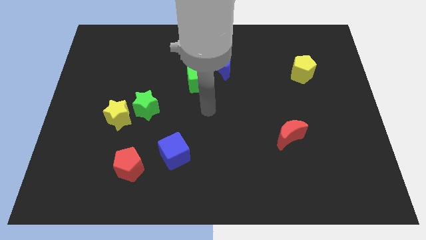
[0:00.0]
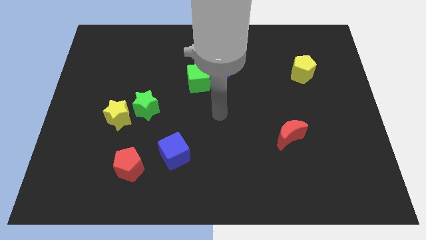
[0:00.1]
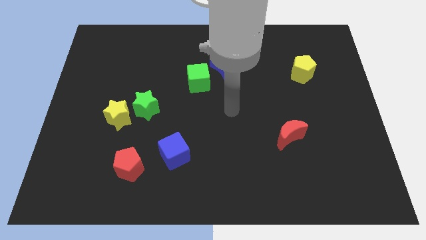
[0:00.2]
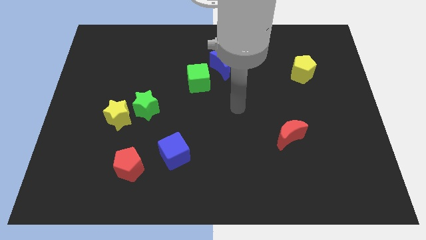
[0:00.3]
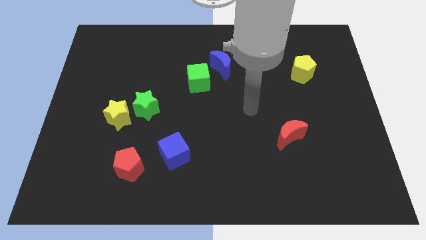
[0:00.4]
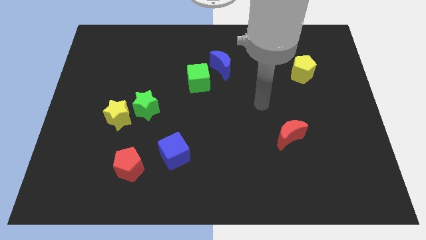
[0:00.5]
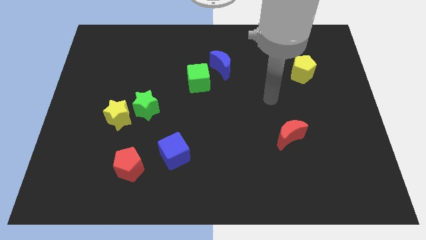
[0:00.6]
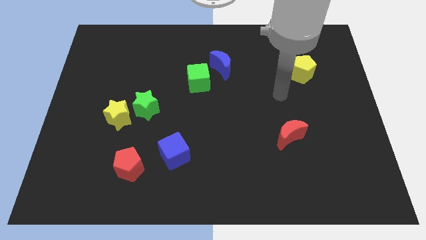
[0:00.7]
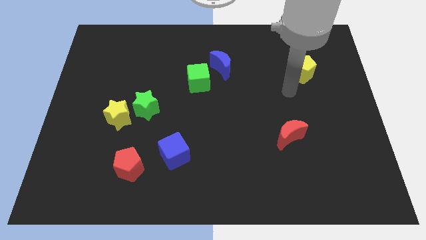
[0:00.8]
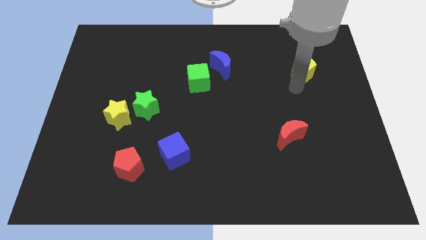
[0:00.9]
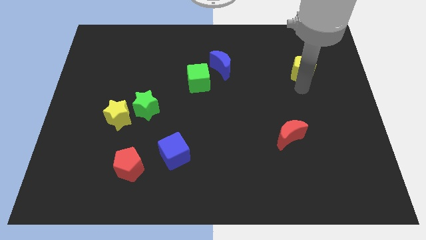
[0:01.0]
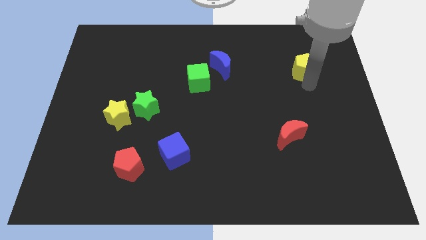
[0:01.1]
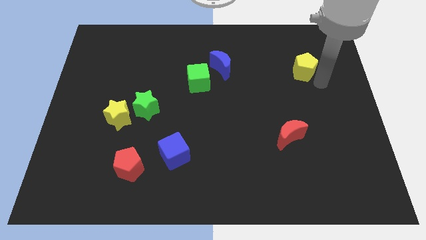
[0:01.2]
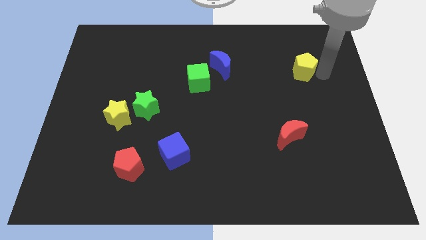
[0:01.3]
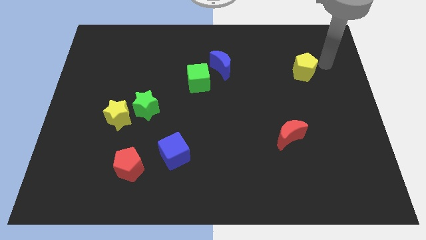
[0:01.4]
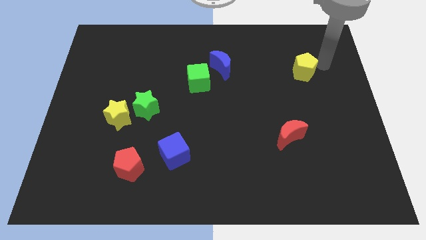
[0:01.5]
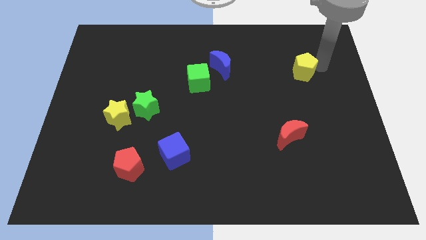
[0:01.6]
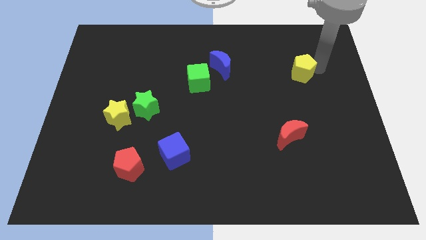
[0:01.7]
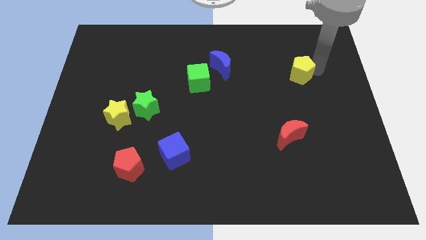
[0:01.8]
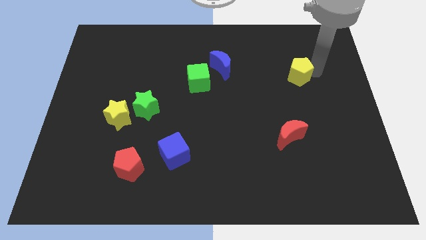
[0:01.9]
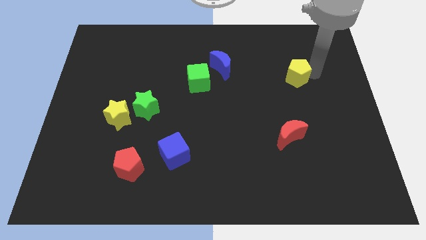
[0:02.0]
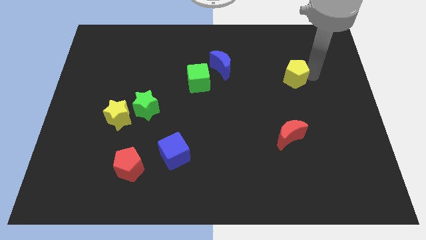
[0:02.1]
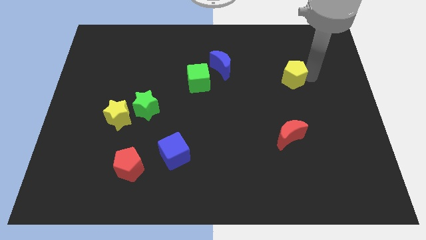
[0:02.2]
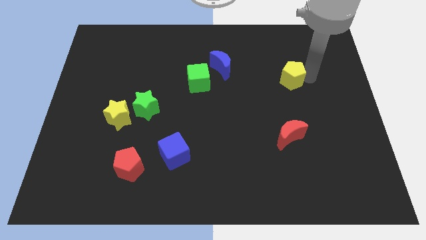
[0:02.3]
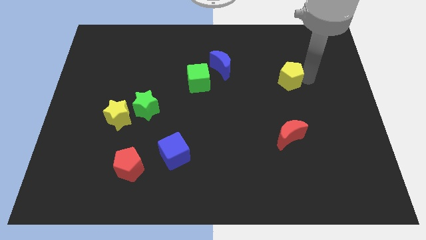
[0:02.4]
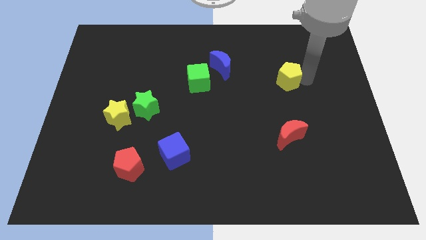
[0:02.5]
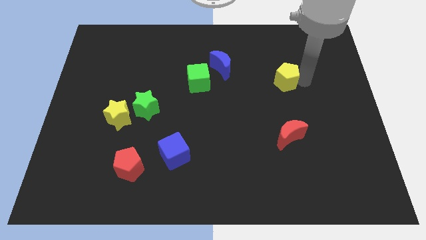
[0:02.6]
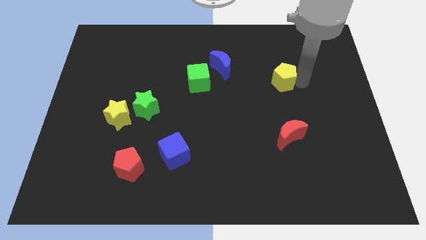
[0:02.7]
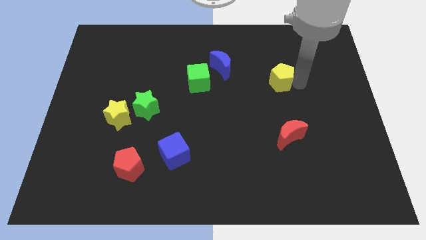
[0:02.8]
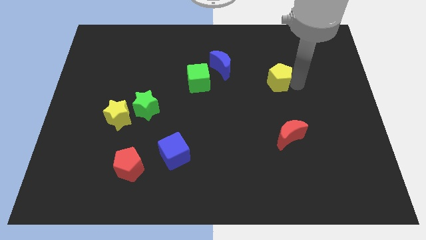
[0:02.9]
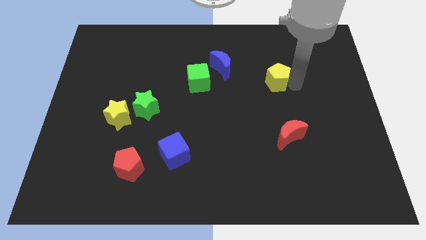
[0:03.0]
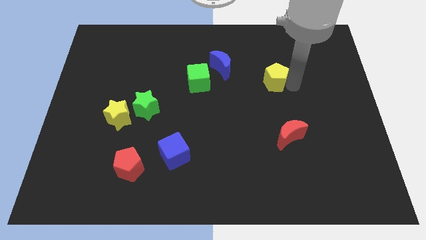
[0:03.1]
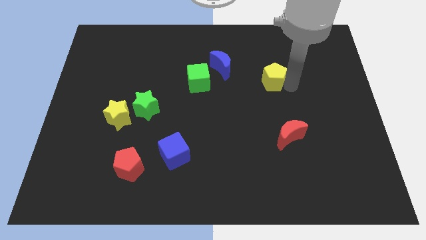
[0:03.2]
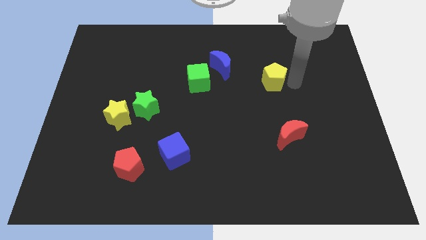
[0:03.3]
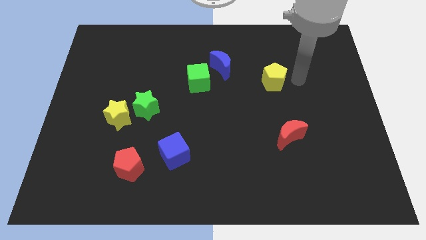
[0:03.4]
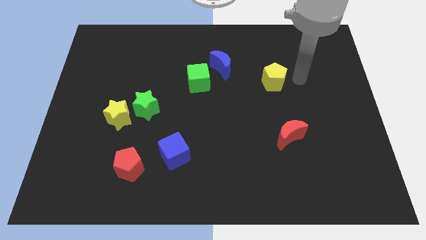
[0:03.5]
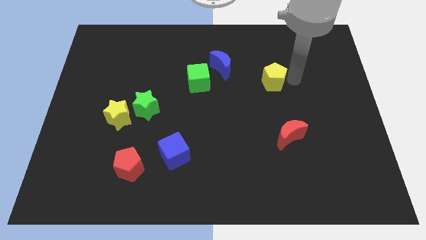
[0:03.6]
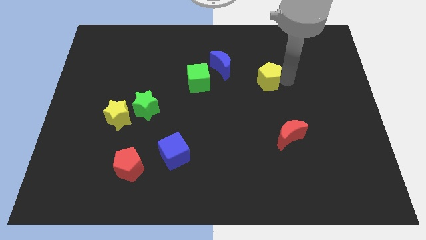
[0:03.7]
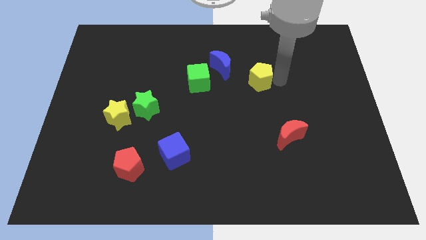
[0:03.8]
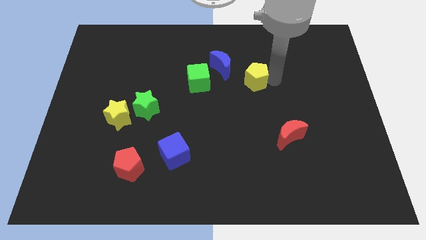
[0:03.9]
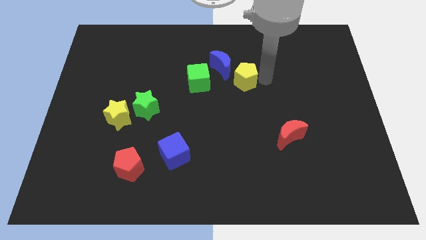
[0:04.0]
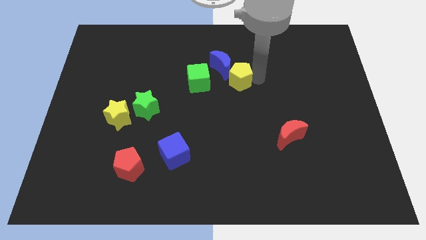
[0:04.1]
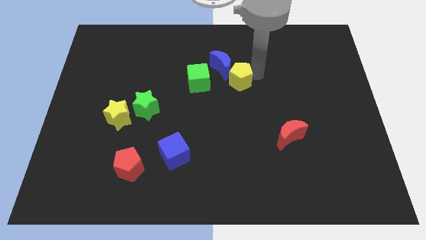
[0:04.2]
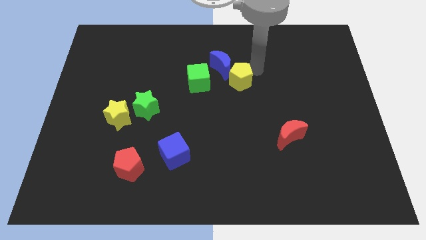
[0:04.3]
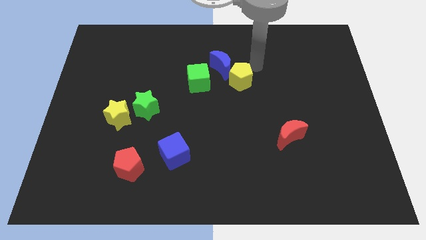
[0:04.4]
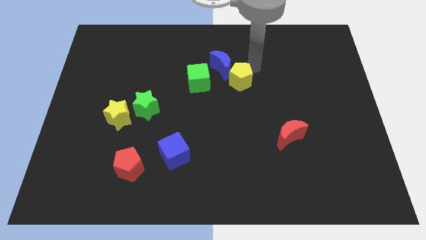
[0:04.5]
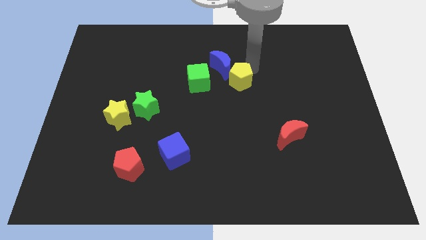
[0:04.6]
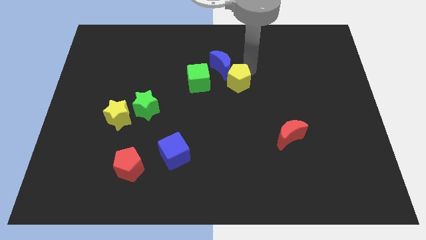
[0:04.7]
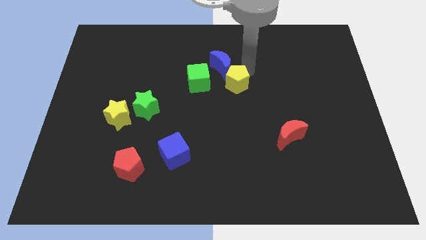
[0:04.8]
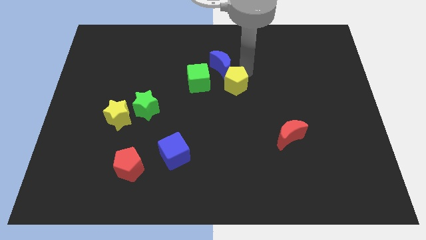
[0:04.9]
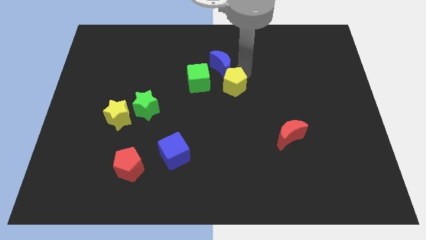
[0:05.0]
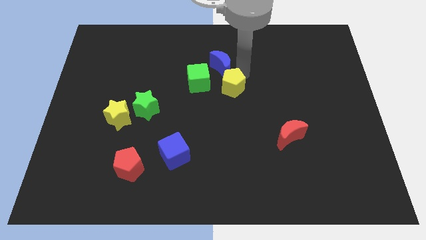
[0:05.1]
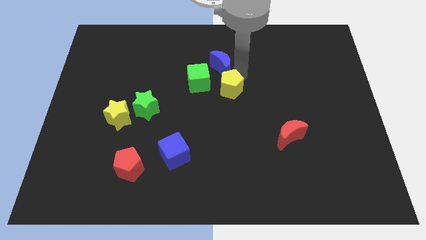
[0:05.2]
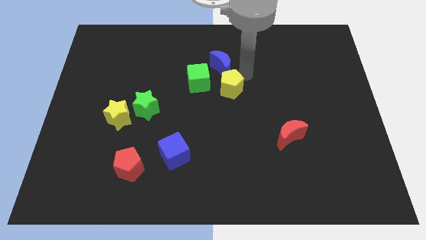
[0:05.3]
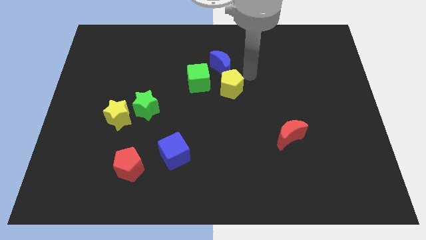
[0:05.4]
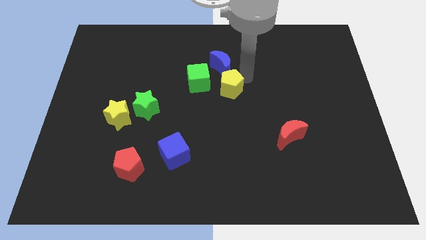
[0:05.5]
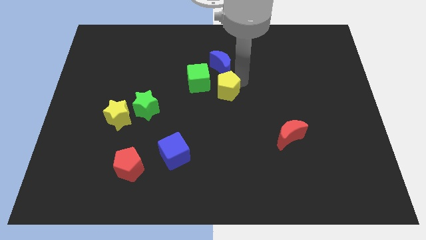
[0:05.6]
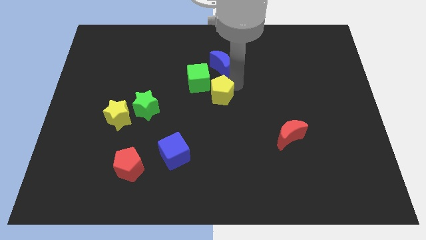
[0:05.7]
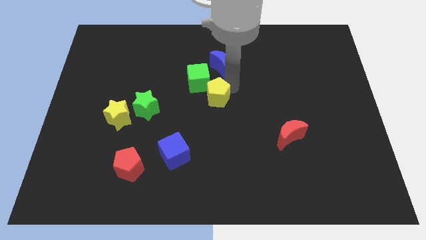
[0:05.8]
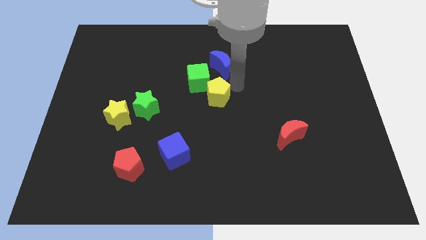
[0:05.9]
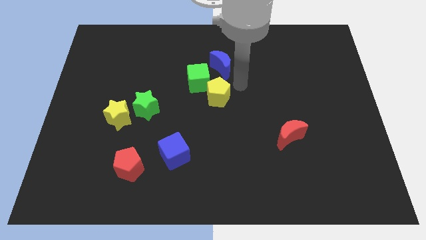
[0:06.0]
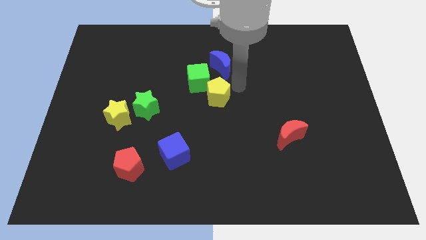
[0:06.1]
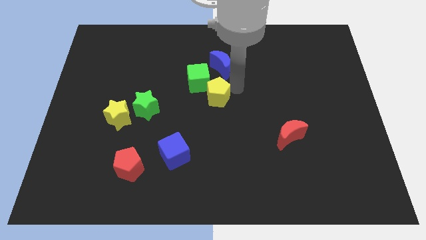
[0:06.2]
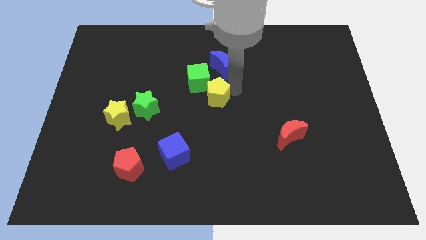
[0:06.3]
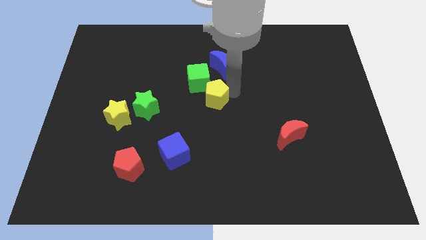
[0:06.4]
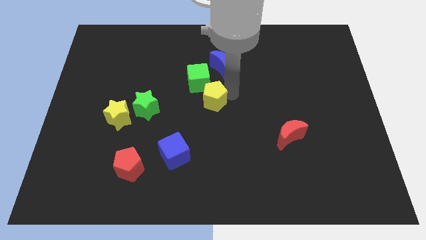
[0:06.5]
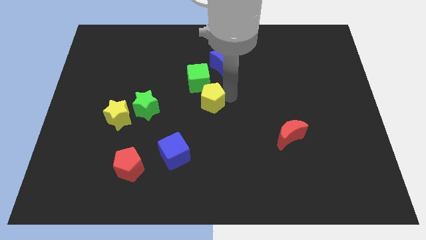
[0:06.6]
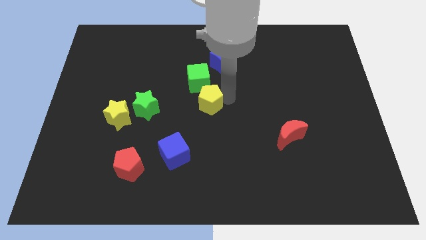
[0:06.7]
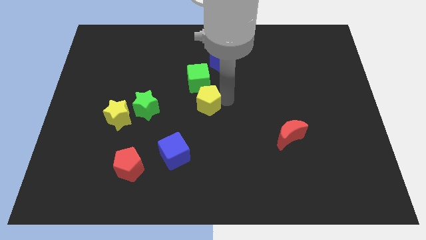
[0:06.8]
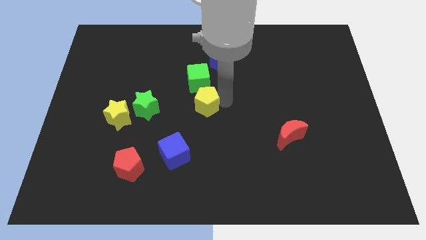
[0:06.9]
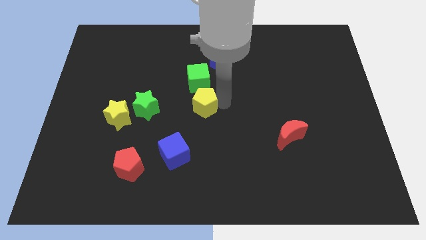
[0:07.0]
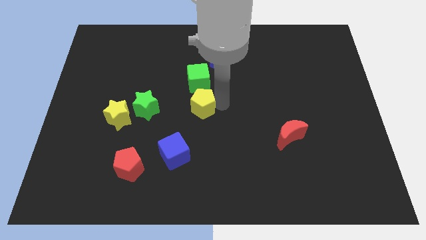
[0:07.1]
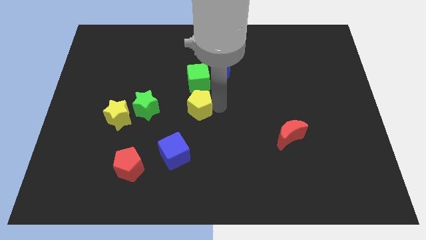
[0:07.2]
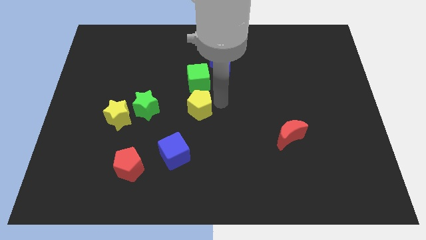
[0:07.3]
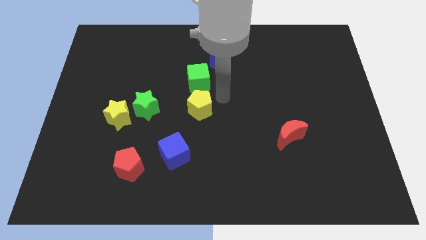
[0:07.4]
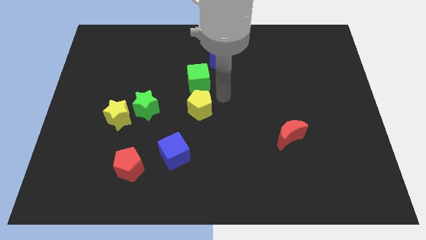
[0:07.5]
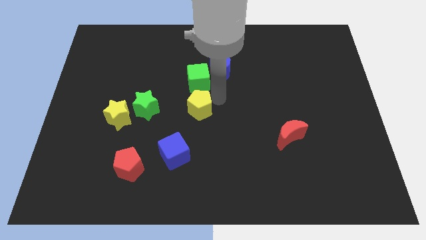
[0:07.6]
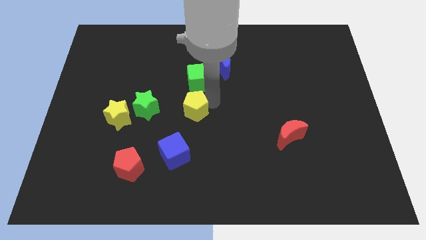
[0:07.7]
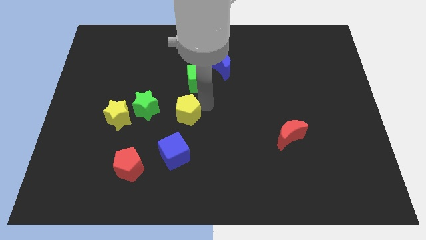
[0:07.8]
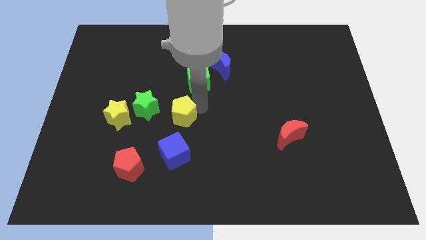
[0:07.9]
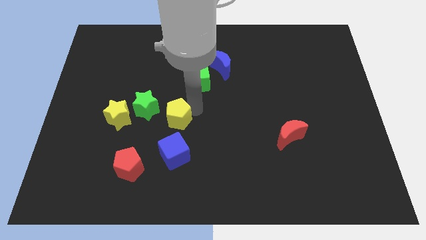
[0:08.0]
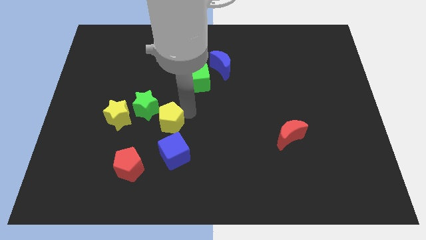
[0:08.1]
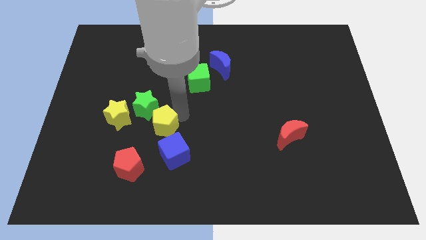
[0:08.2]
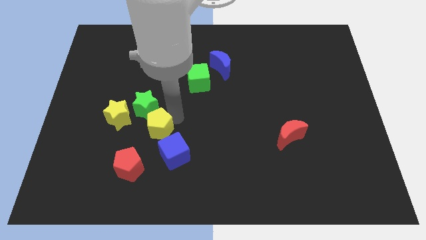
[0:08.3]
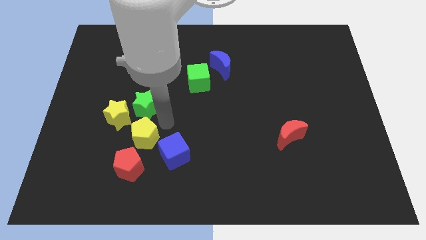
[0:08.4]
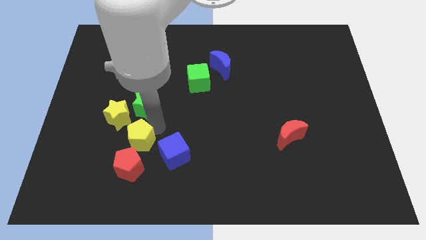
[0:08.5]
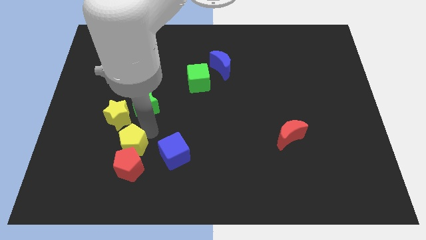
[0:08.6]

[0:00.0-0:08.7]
move the yellow pentagon to the red pentagon

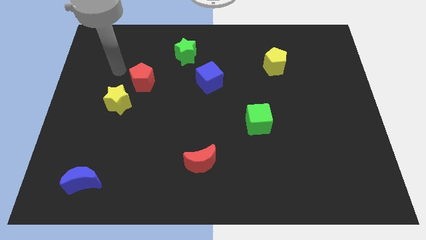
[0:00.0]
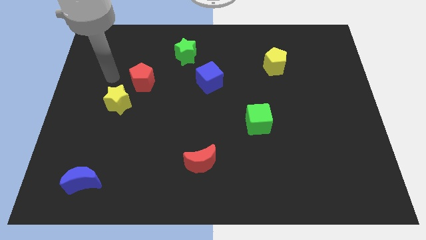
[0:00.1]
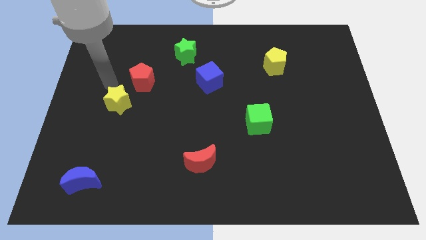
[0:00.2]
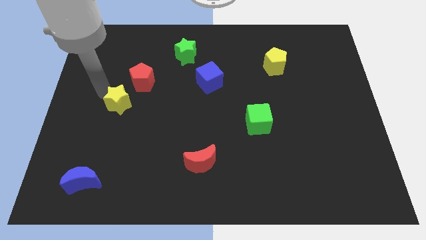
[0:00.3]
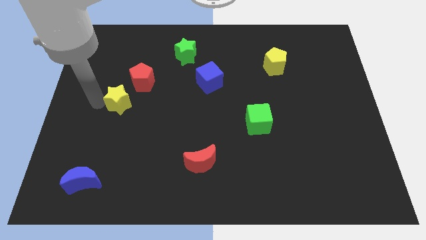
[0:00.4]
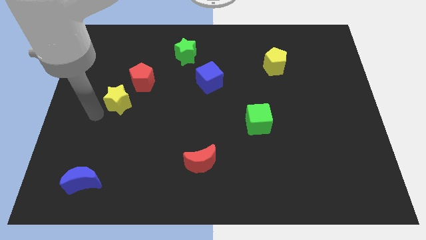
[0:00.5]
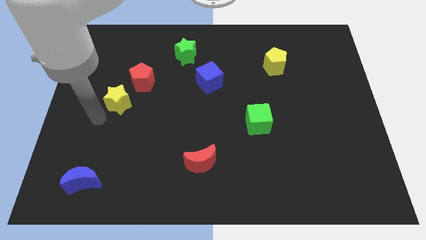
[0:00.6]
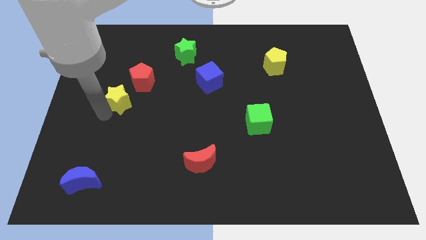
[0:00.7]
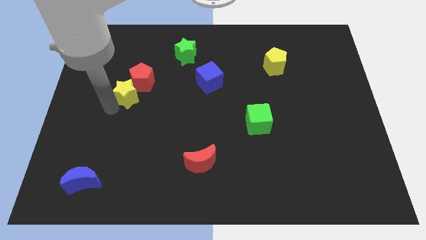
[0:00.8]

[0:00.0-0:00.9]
put the yellow star close to the red pentagon
